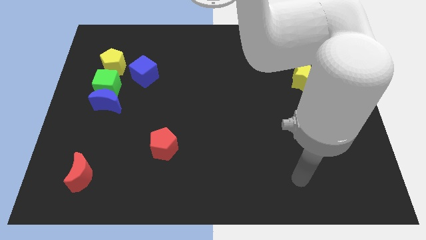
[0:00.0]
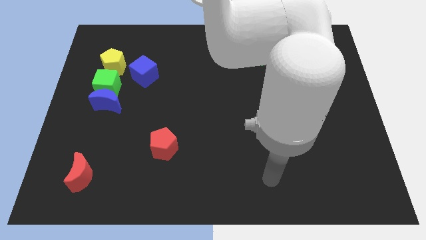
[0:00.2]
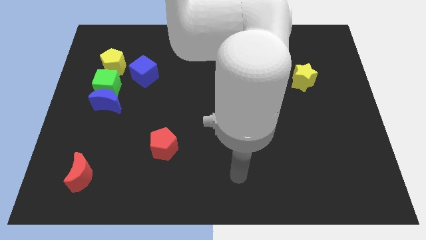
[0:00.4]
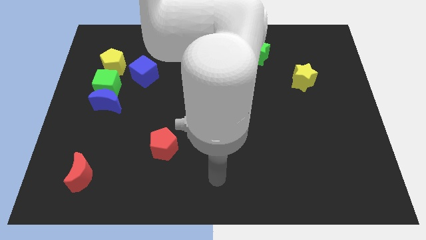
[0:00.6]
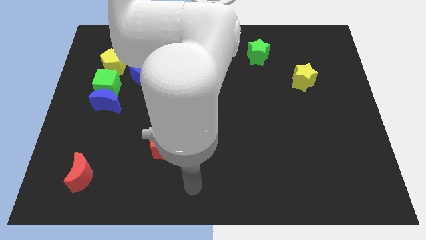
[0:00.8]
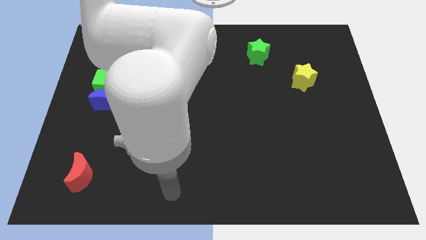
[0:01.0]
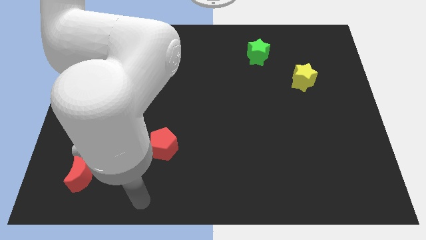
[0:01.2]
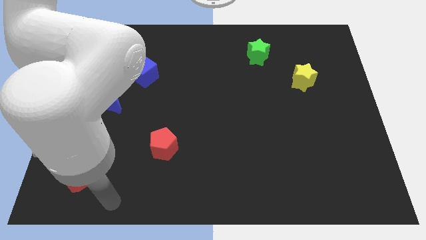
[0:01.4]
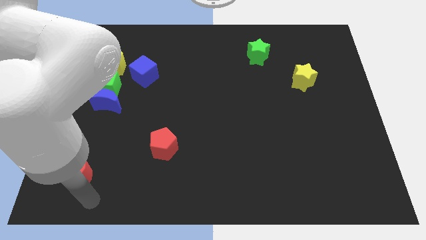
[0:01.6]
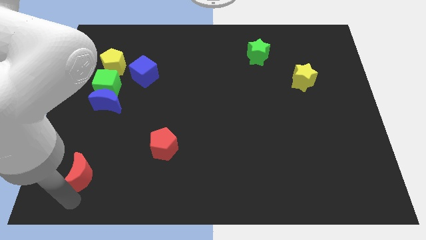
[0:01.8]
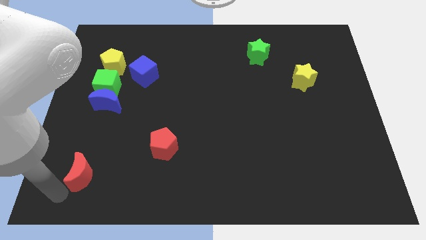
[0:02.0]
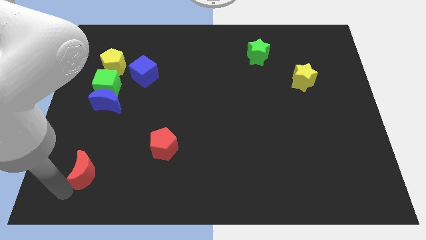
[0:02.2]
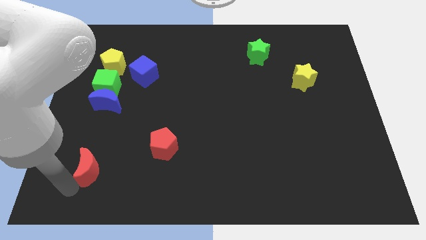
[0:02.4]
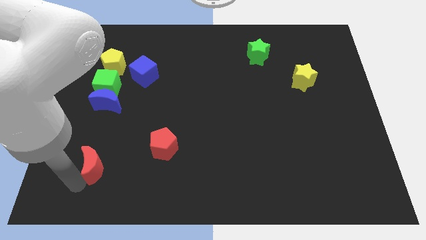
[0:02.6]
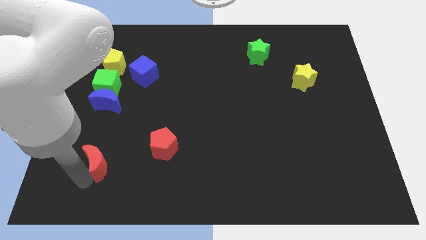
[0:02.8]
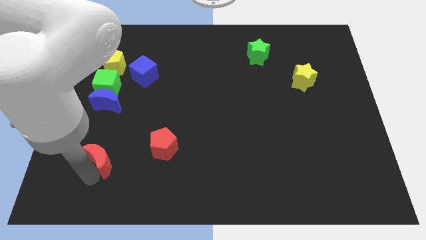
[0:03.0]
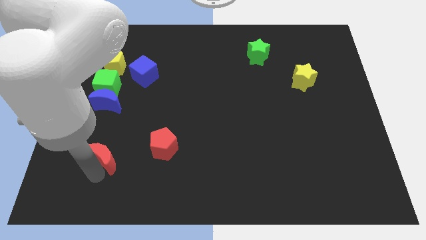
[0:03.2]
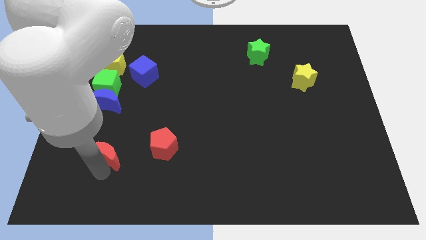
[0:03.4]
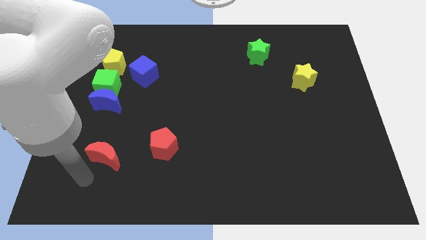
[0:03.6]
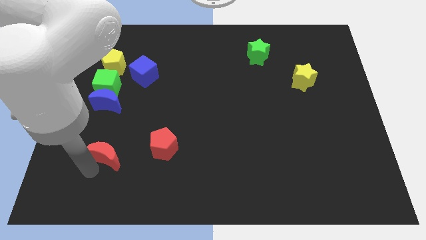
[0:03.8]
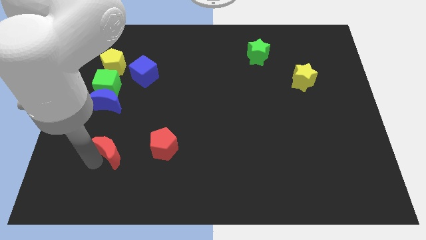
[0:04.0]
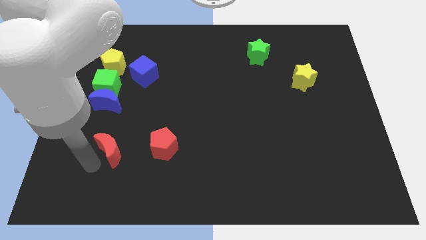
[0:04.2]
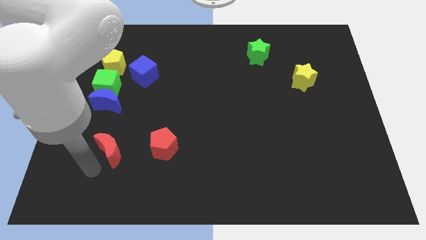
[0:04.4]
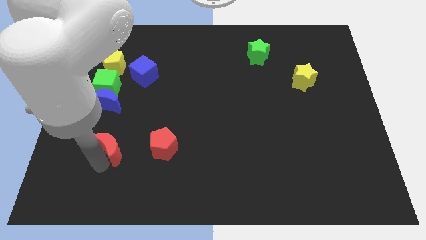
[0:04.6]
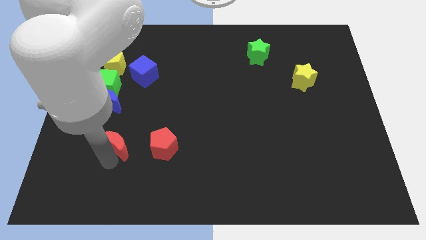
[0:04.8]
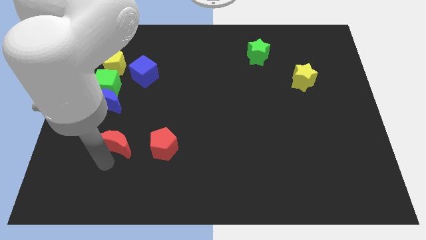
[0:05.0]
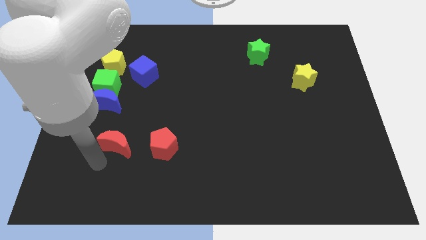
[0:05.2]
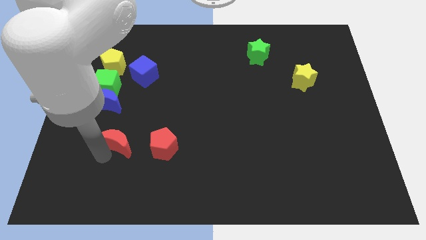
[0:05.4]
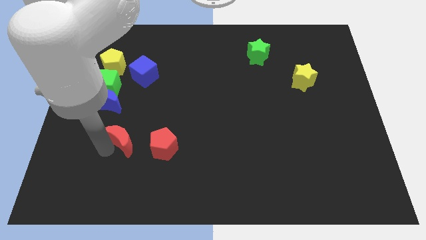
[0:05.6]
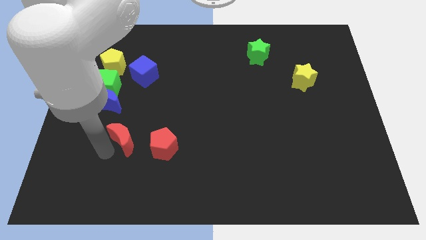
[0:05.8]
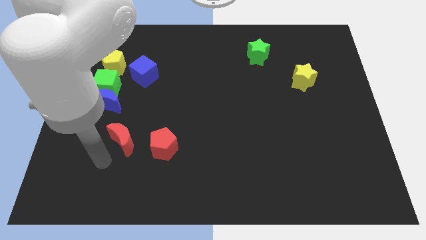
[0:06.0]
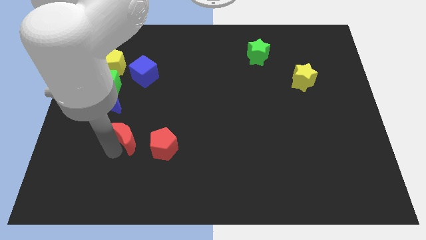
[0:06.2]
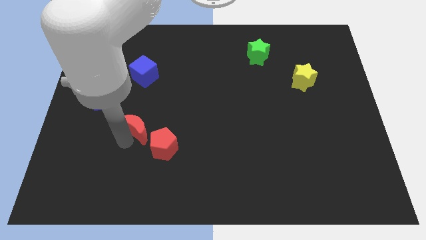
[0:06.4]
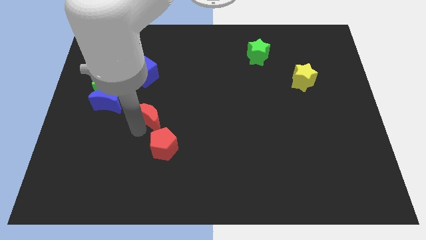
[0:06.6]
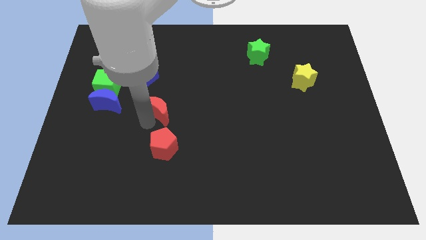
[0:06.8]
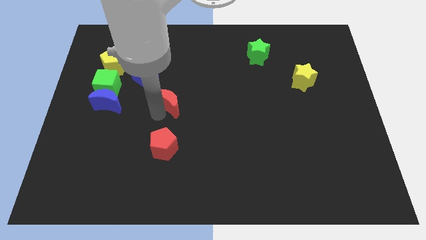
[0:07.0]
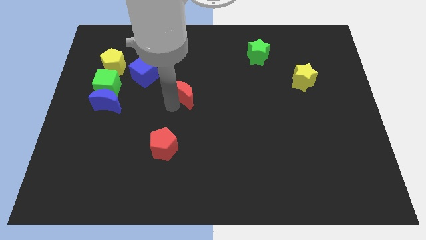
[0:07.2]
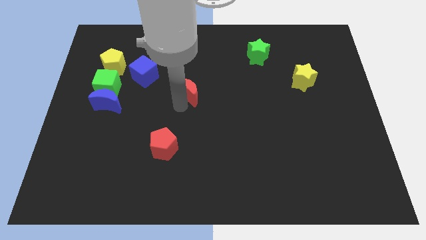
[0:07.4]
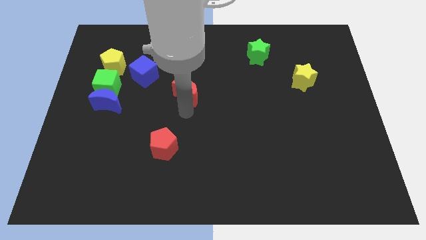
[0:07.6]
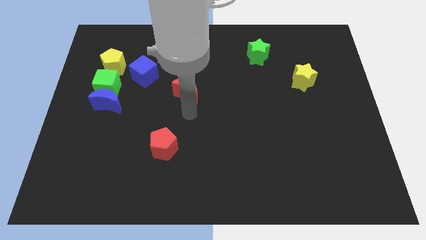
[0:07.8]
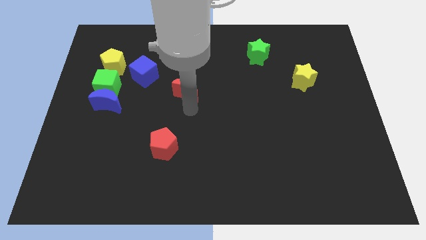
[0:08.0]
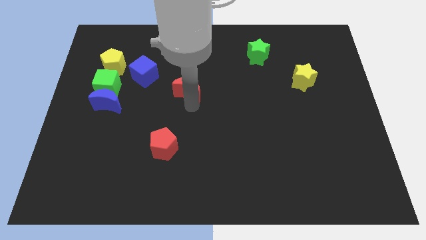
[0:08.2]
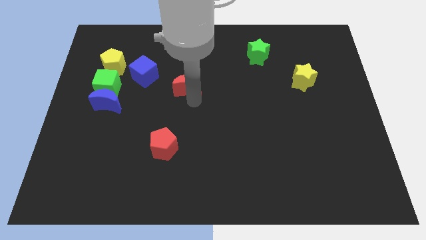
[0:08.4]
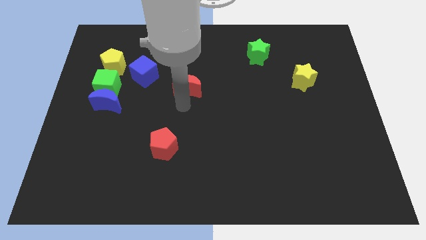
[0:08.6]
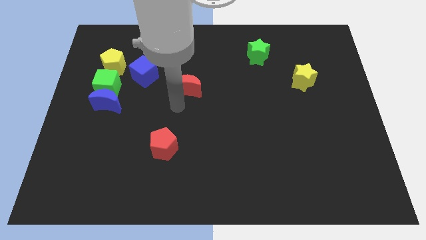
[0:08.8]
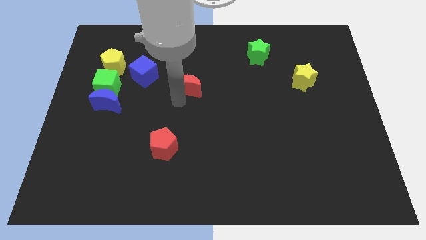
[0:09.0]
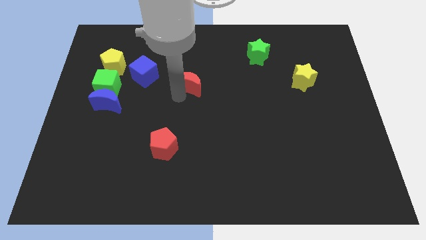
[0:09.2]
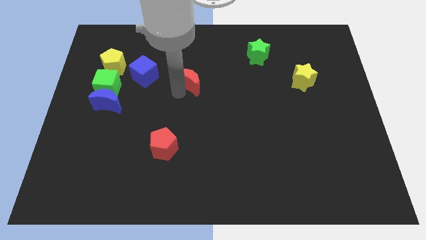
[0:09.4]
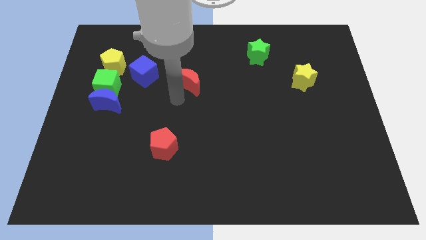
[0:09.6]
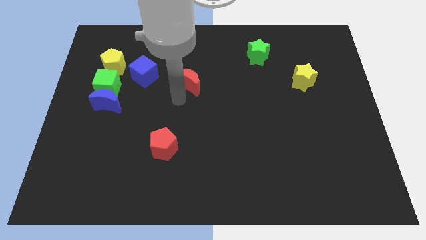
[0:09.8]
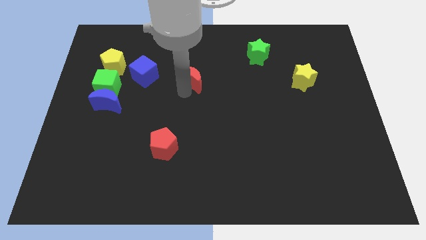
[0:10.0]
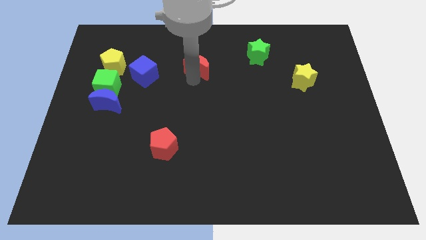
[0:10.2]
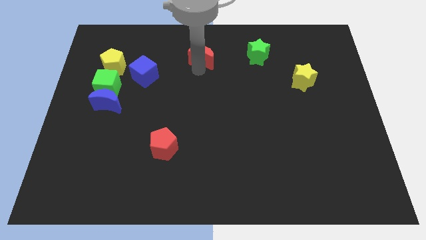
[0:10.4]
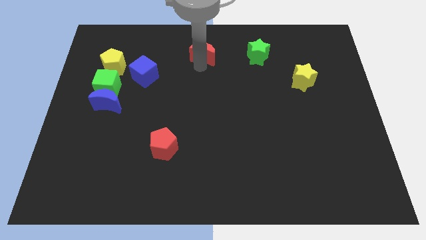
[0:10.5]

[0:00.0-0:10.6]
slide the red moon to the towards your base

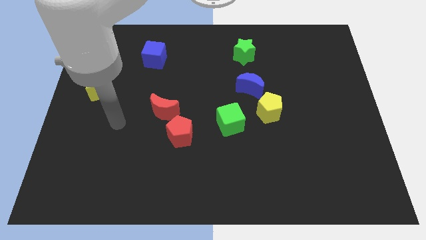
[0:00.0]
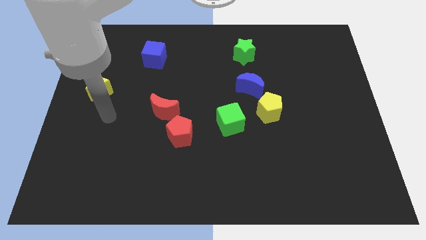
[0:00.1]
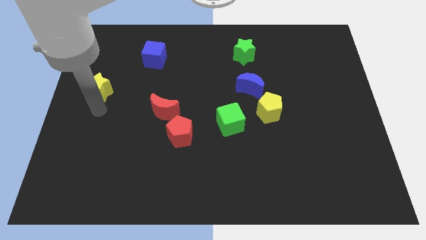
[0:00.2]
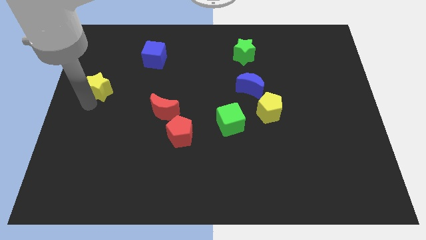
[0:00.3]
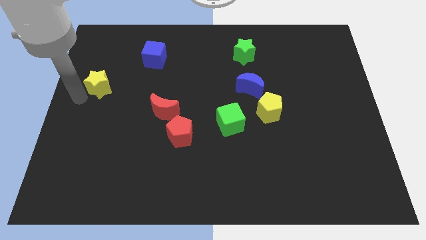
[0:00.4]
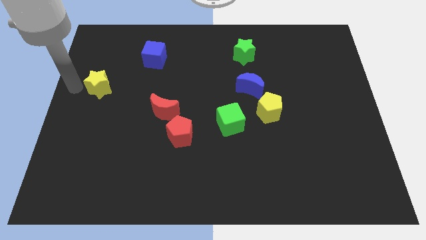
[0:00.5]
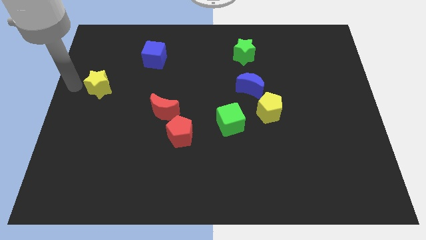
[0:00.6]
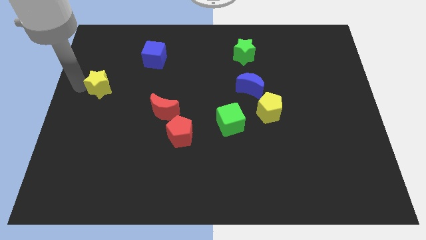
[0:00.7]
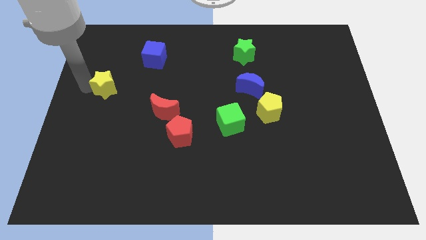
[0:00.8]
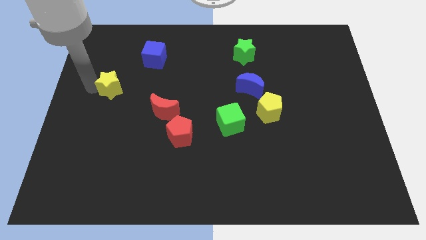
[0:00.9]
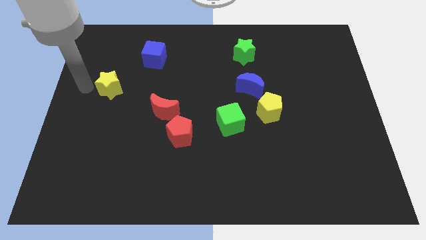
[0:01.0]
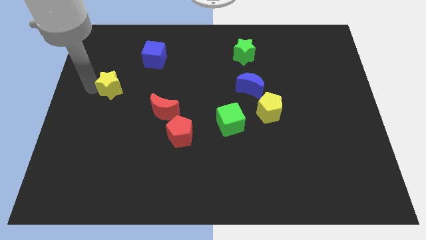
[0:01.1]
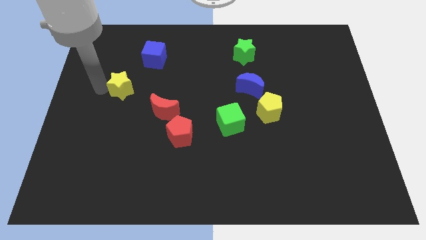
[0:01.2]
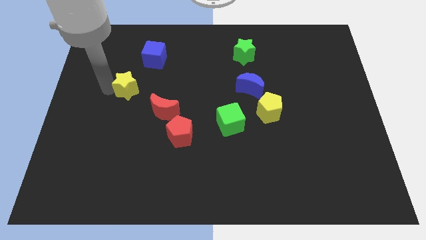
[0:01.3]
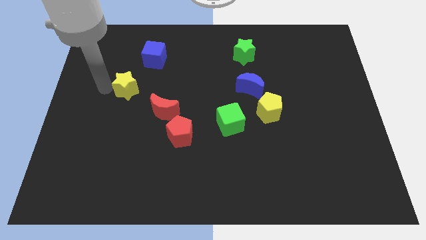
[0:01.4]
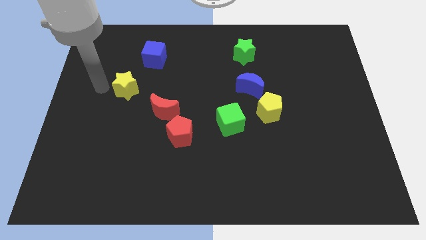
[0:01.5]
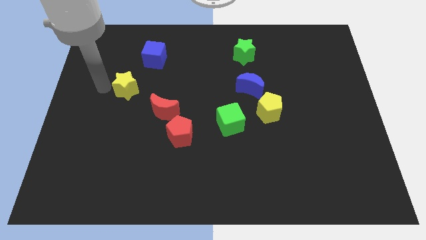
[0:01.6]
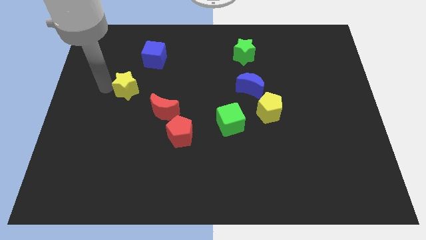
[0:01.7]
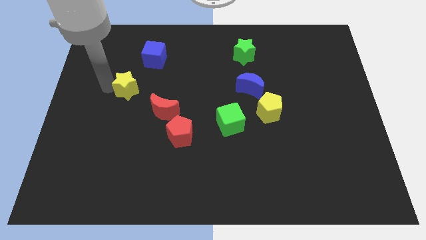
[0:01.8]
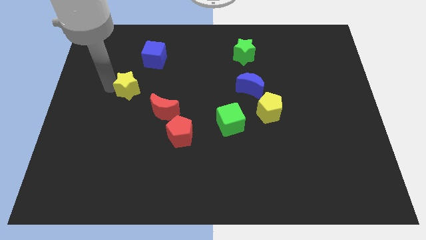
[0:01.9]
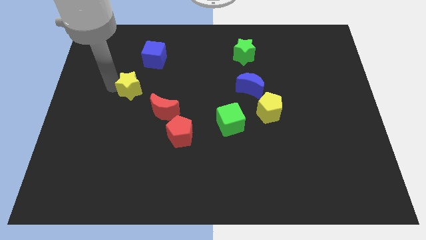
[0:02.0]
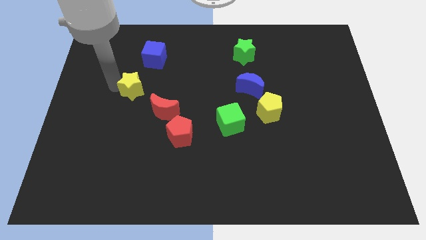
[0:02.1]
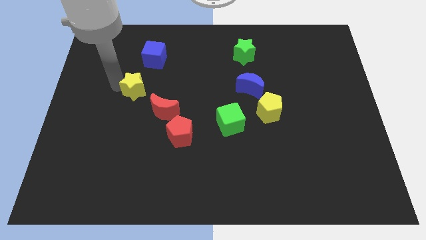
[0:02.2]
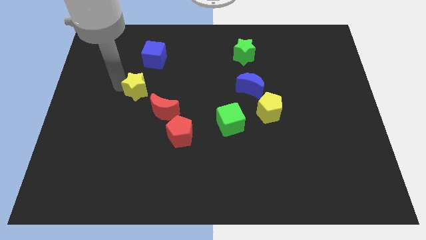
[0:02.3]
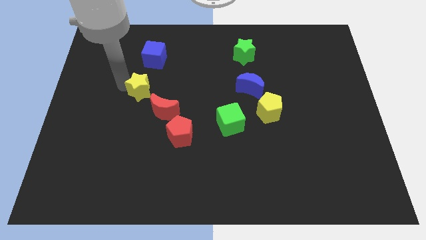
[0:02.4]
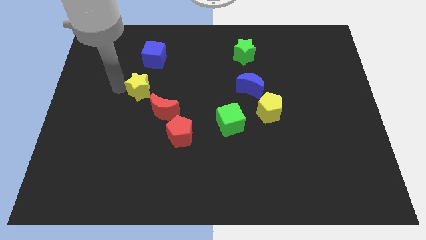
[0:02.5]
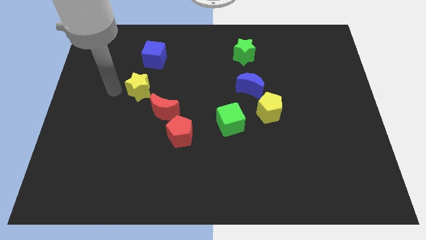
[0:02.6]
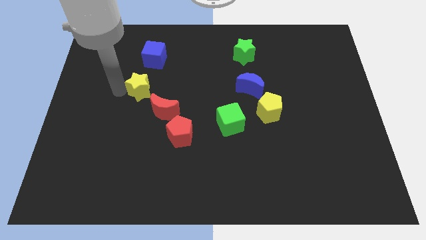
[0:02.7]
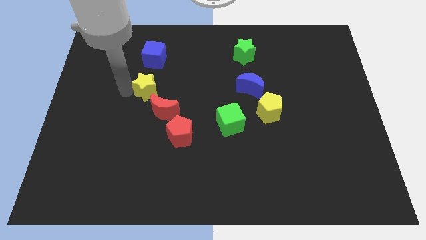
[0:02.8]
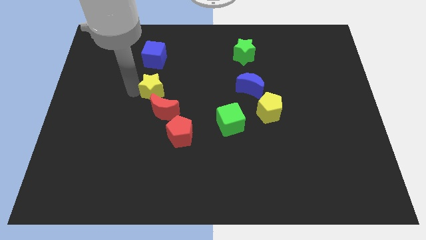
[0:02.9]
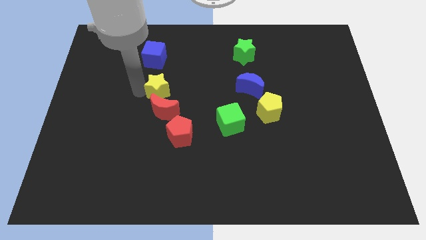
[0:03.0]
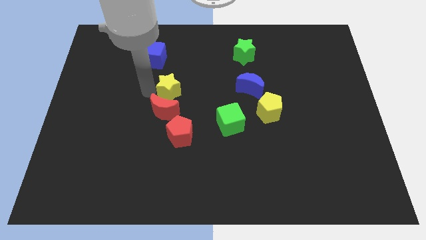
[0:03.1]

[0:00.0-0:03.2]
slide the yellow star to the center
